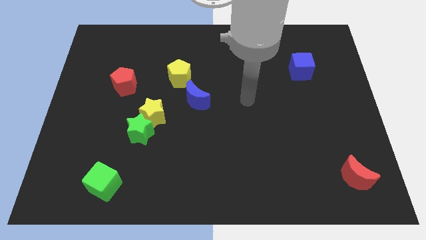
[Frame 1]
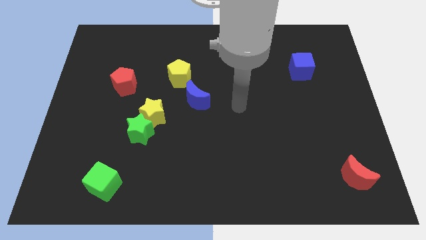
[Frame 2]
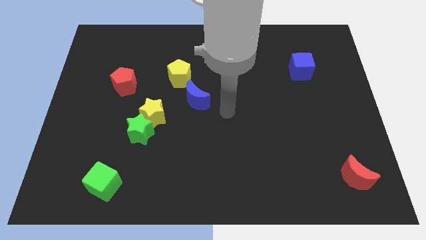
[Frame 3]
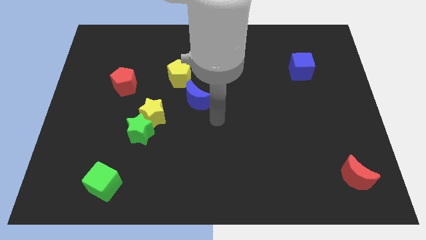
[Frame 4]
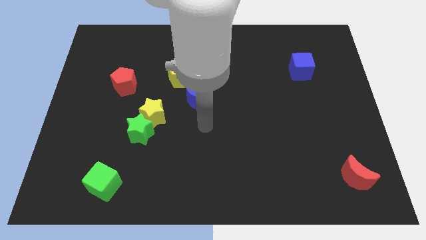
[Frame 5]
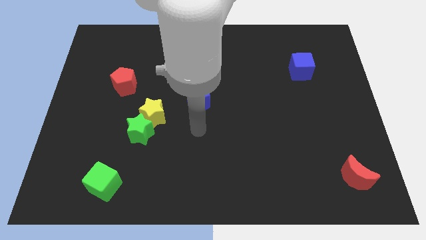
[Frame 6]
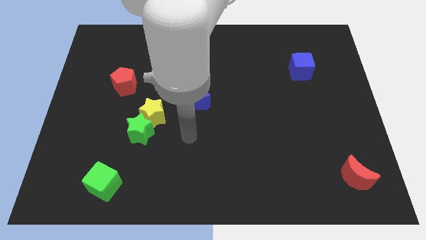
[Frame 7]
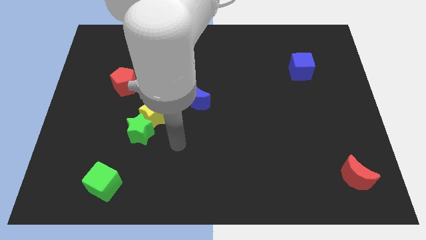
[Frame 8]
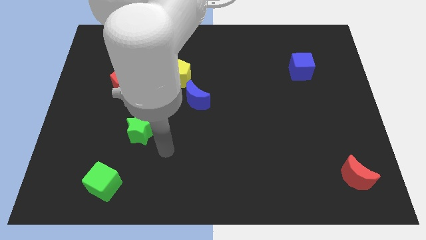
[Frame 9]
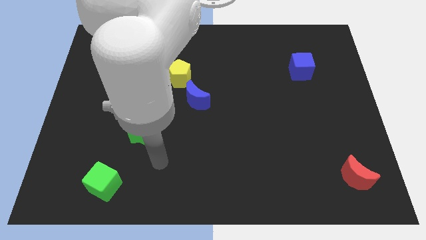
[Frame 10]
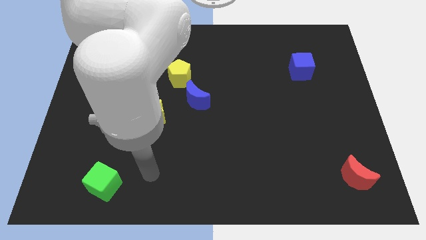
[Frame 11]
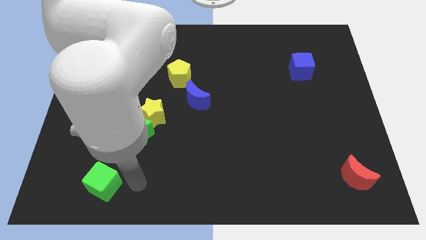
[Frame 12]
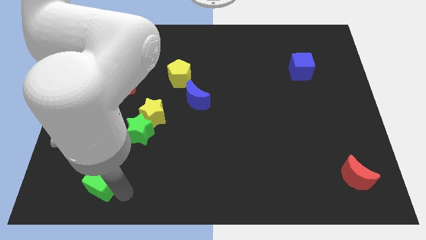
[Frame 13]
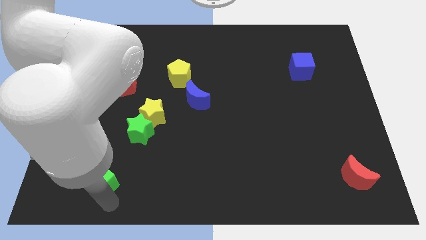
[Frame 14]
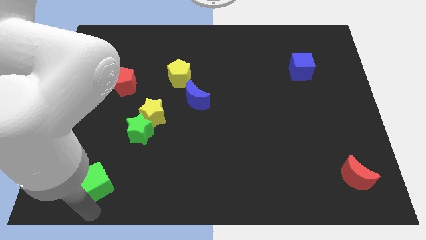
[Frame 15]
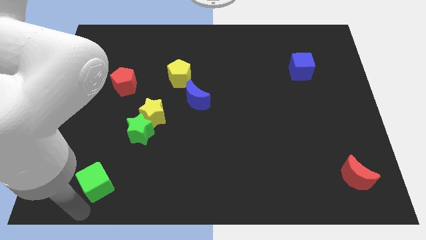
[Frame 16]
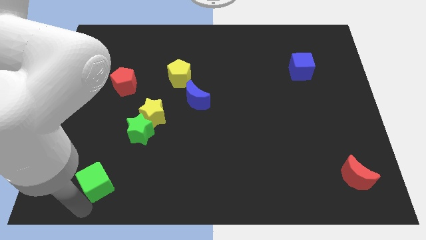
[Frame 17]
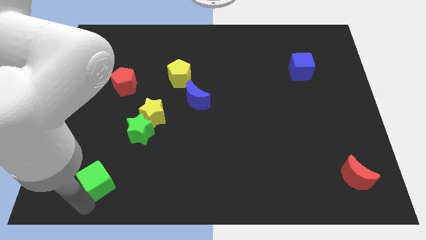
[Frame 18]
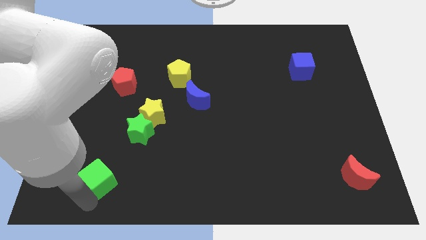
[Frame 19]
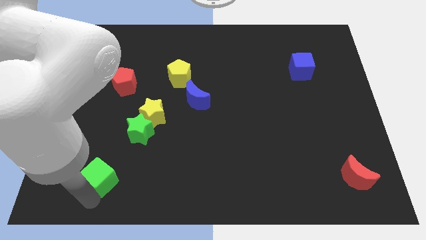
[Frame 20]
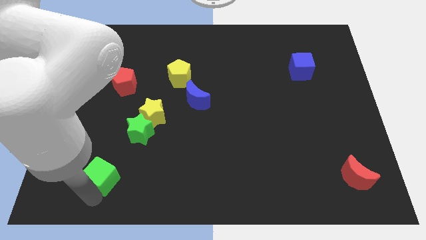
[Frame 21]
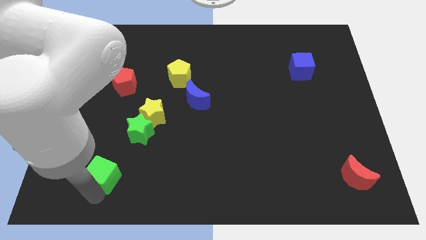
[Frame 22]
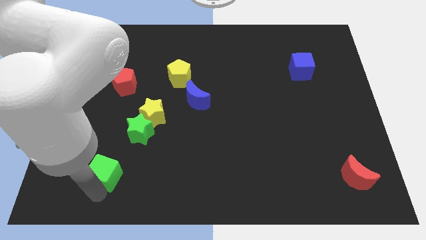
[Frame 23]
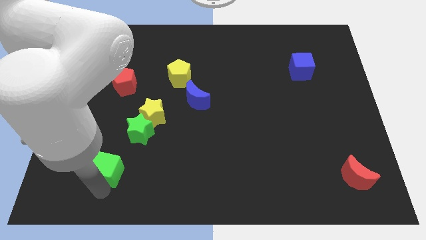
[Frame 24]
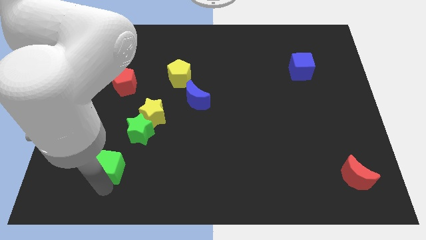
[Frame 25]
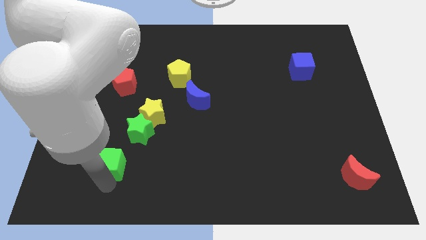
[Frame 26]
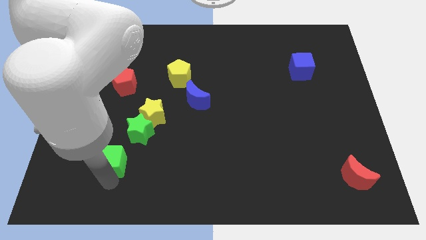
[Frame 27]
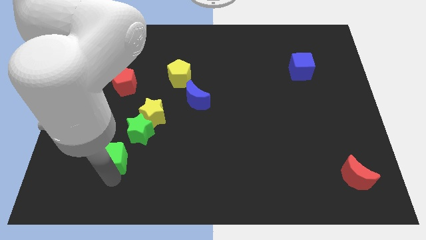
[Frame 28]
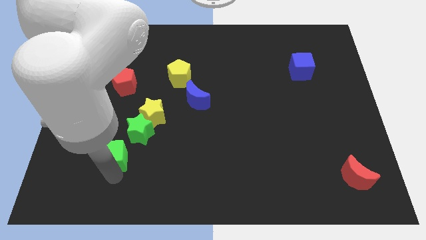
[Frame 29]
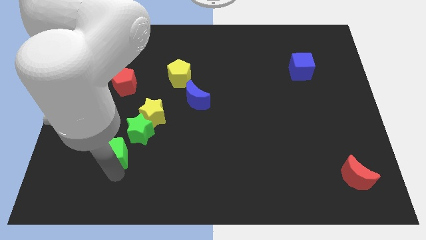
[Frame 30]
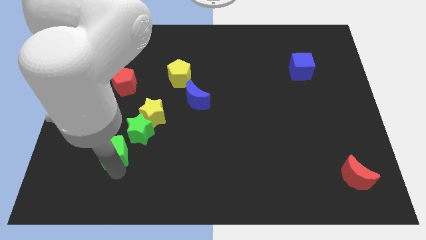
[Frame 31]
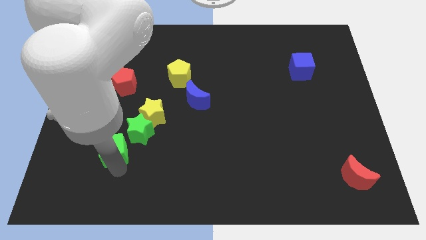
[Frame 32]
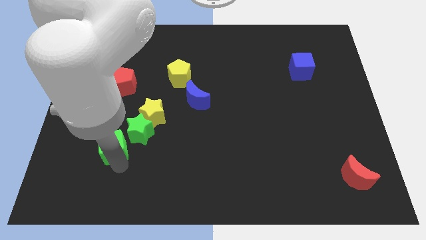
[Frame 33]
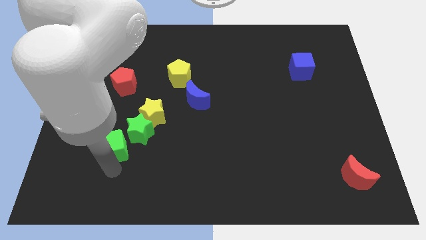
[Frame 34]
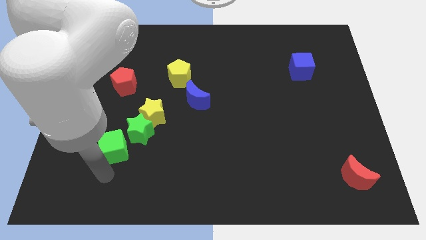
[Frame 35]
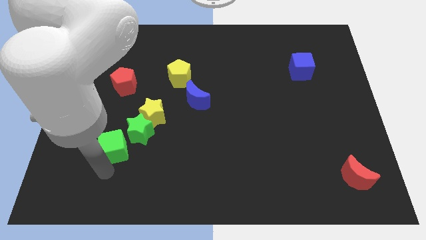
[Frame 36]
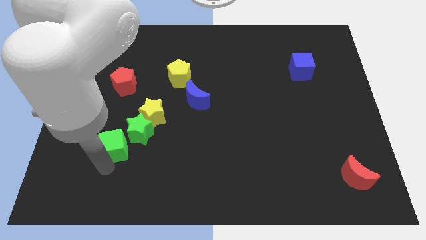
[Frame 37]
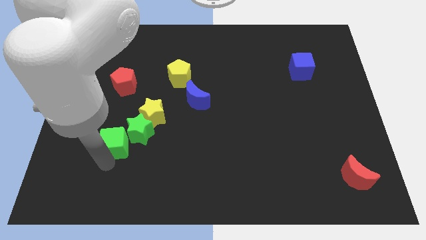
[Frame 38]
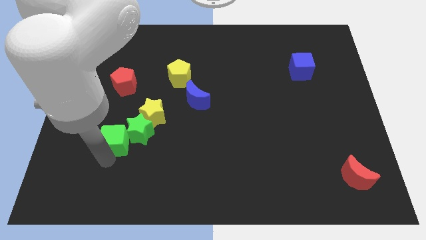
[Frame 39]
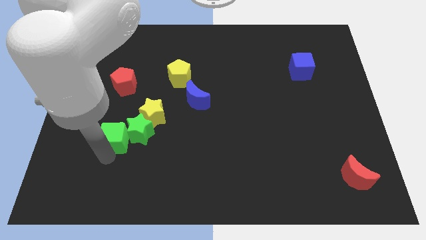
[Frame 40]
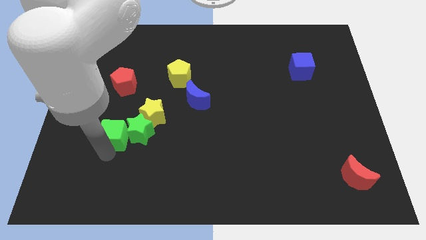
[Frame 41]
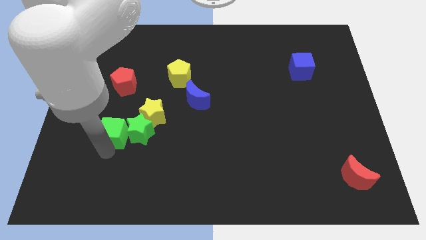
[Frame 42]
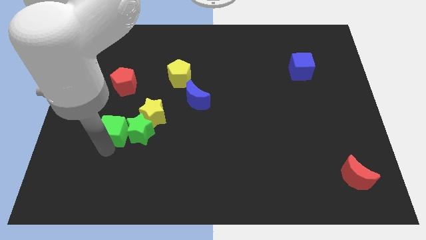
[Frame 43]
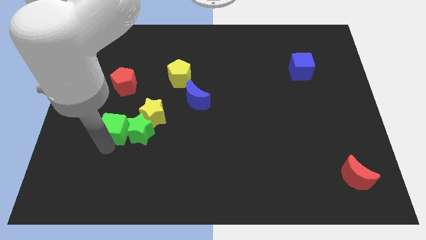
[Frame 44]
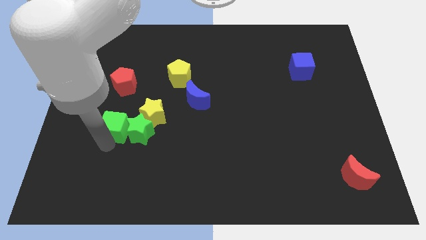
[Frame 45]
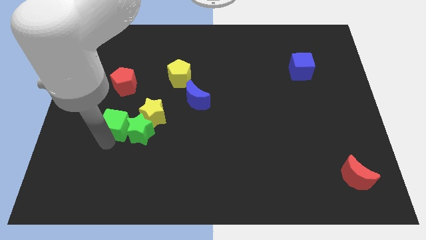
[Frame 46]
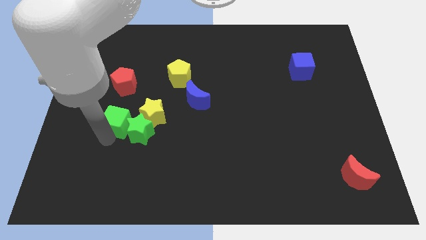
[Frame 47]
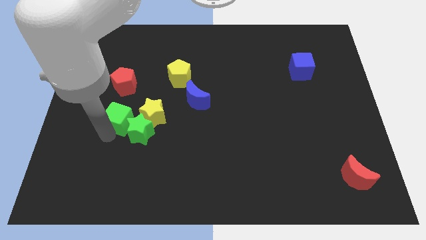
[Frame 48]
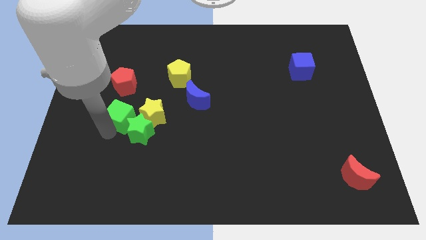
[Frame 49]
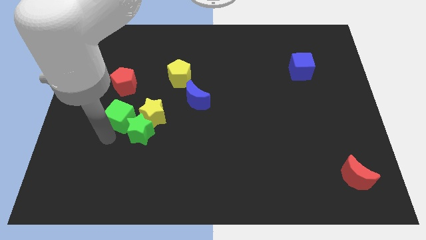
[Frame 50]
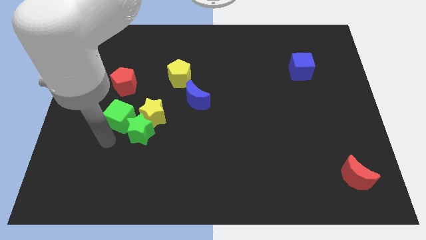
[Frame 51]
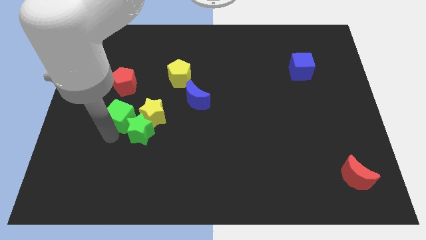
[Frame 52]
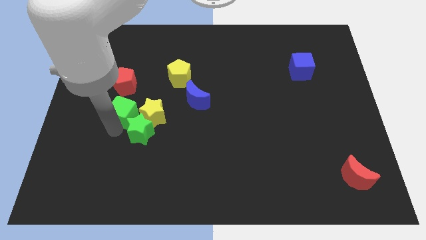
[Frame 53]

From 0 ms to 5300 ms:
push the green cube to the top left of the yellow star

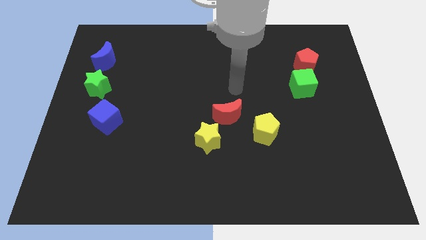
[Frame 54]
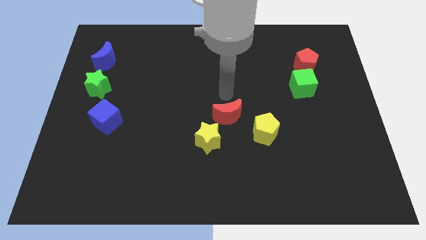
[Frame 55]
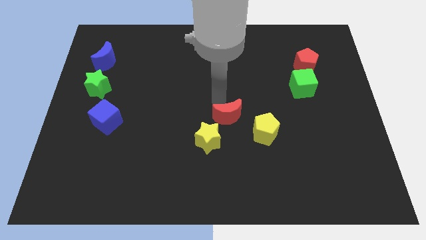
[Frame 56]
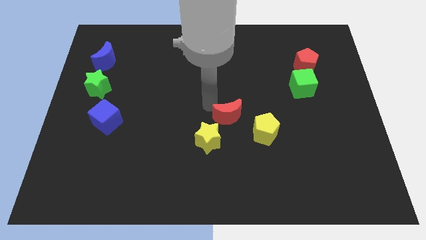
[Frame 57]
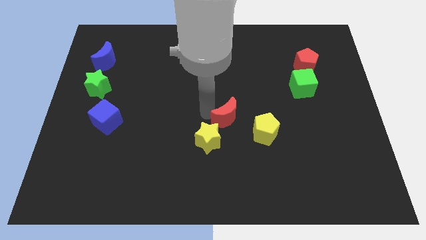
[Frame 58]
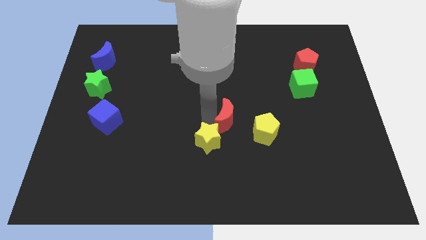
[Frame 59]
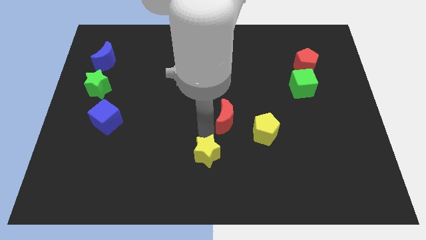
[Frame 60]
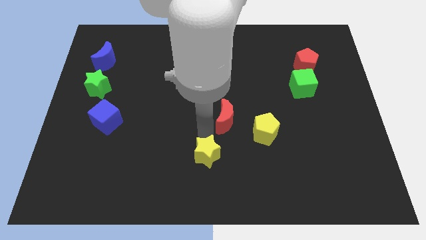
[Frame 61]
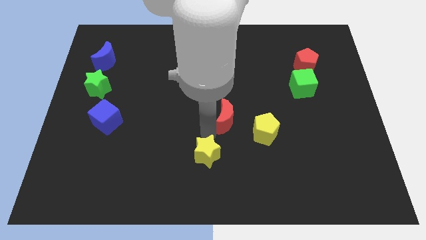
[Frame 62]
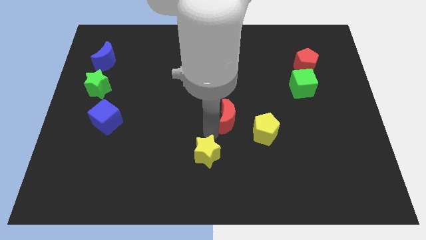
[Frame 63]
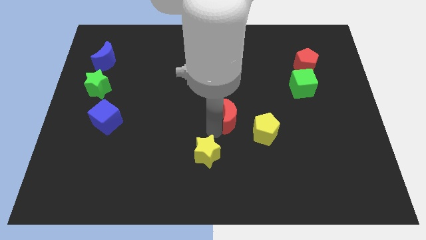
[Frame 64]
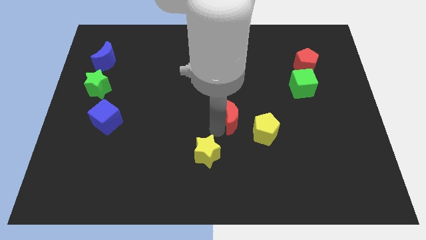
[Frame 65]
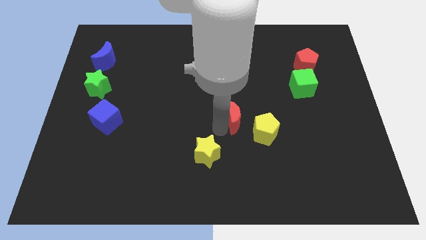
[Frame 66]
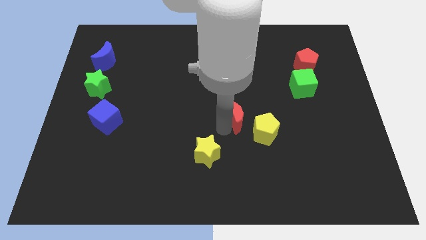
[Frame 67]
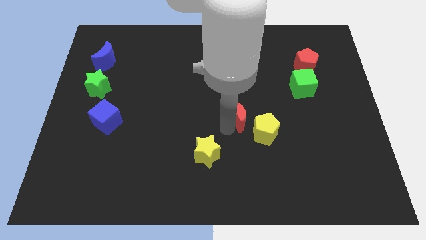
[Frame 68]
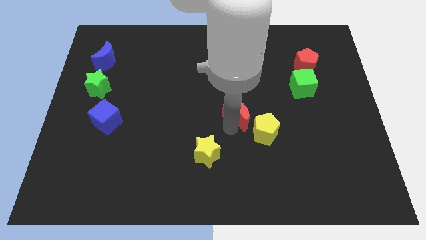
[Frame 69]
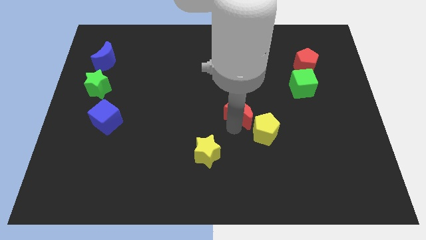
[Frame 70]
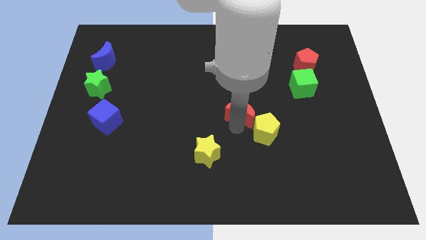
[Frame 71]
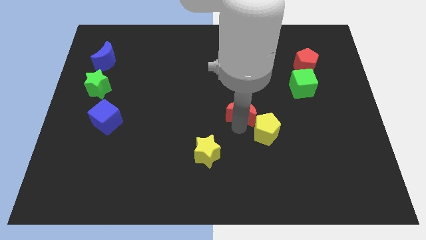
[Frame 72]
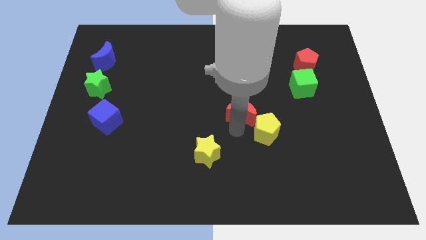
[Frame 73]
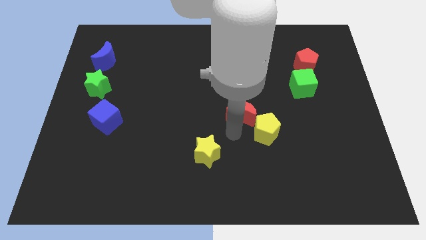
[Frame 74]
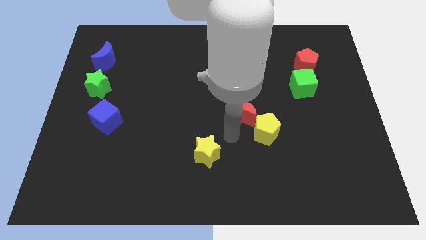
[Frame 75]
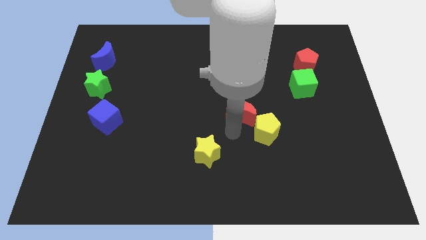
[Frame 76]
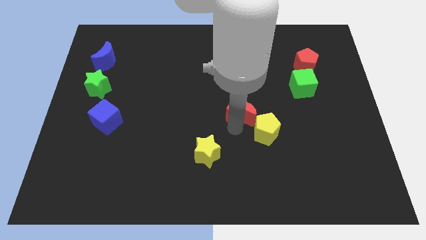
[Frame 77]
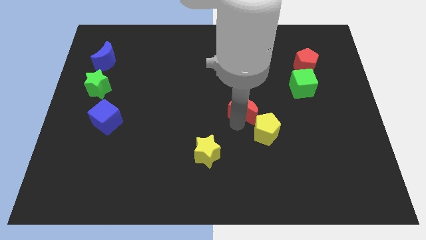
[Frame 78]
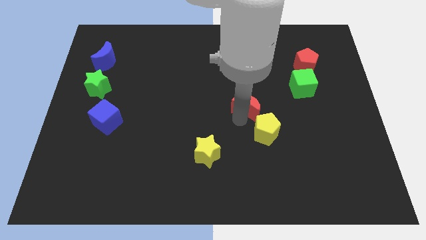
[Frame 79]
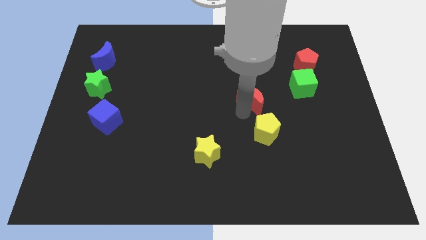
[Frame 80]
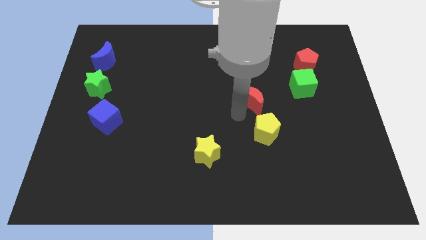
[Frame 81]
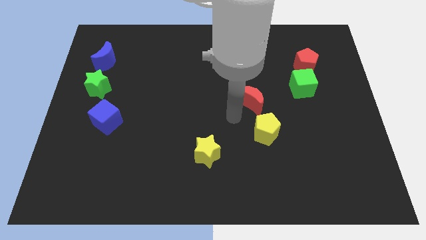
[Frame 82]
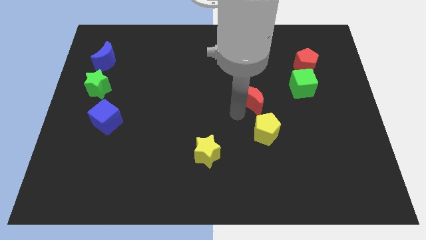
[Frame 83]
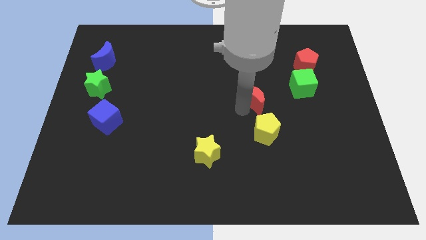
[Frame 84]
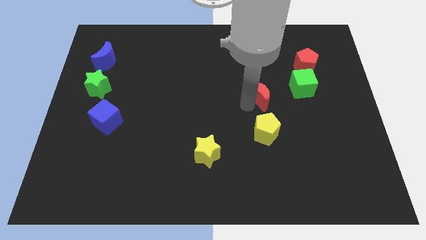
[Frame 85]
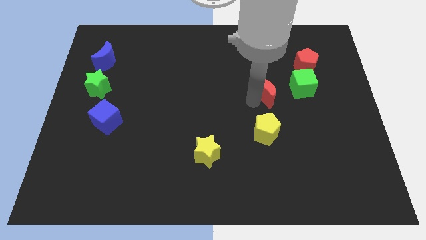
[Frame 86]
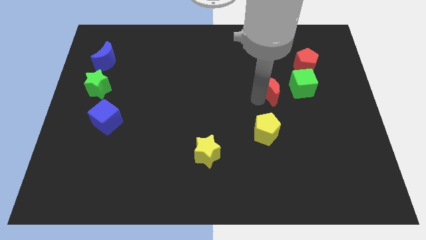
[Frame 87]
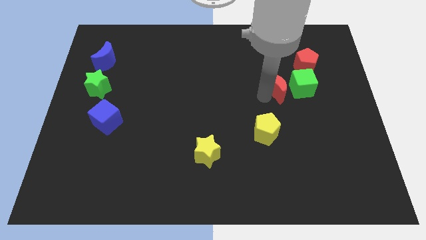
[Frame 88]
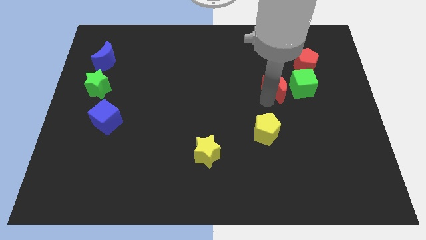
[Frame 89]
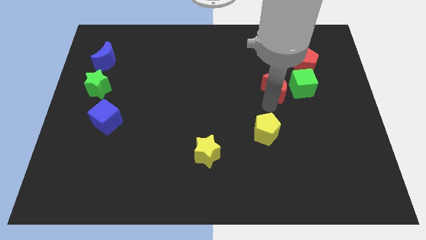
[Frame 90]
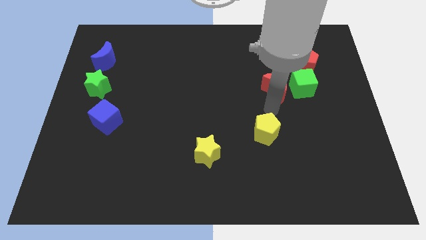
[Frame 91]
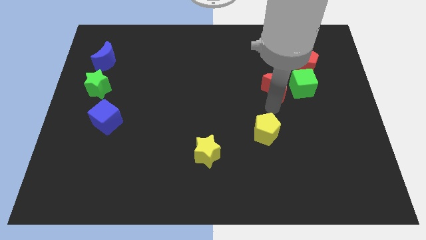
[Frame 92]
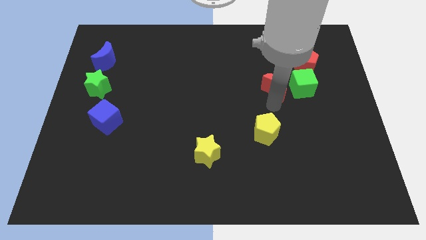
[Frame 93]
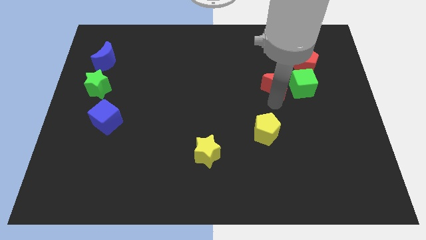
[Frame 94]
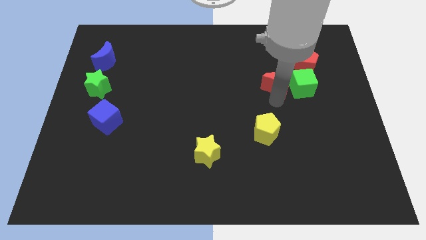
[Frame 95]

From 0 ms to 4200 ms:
move the red moon to the top left side of the green cube
